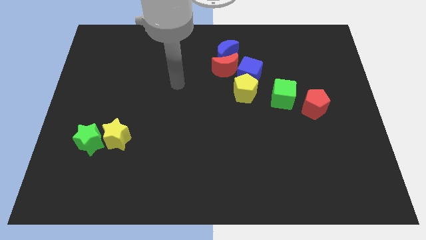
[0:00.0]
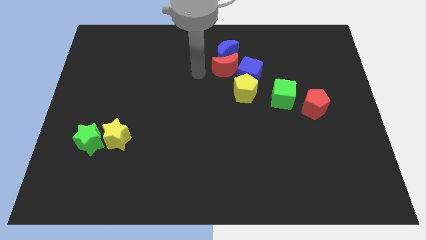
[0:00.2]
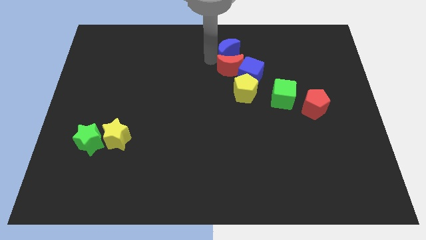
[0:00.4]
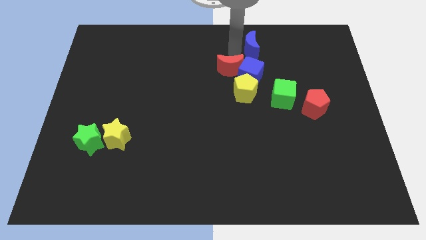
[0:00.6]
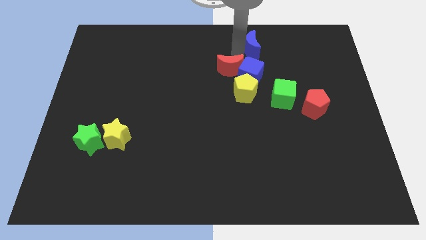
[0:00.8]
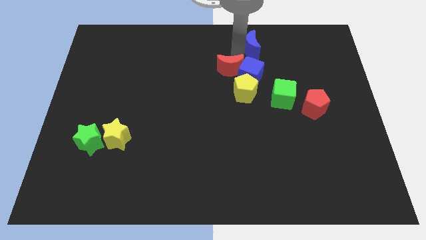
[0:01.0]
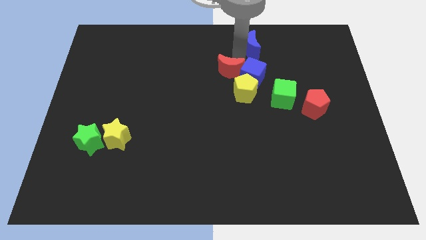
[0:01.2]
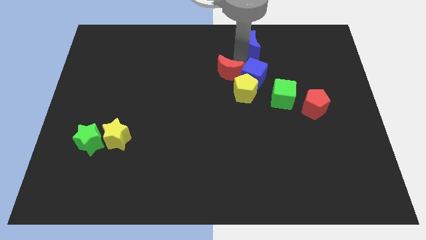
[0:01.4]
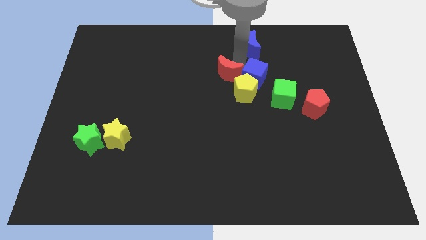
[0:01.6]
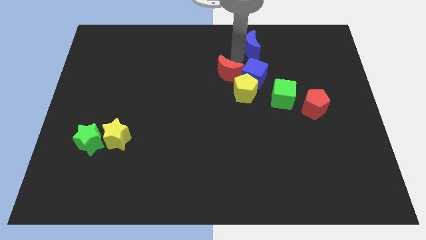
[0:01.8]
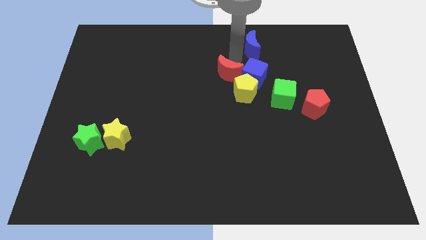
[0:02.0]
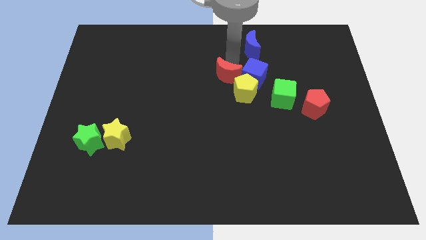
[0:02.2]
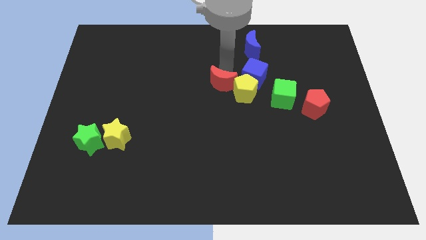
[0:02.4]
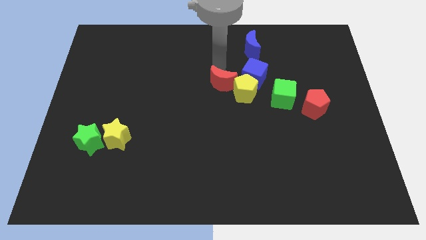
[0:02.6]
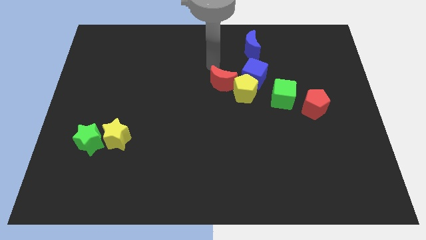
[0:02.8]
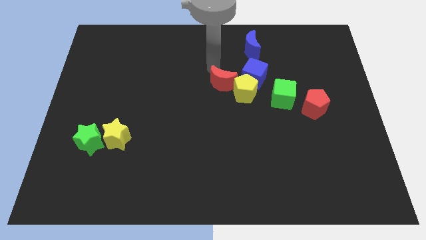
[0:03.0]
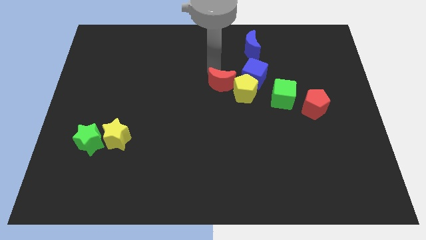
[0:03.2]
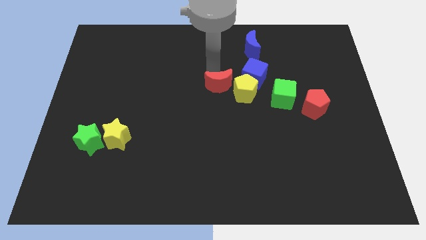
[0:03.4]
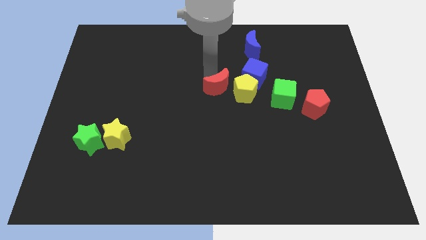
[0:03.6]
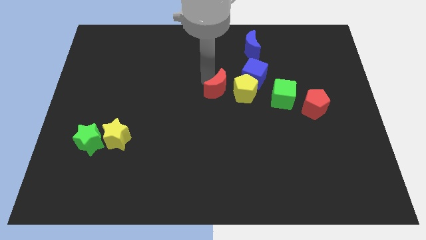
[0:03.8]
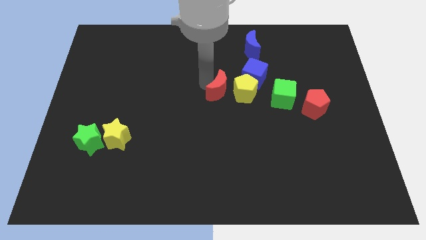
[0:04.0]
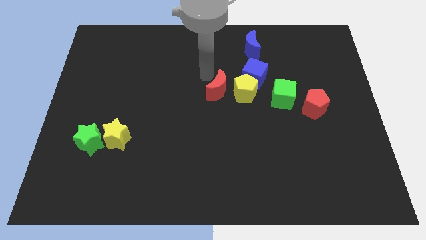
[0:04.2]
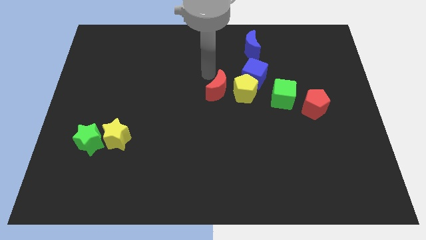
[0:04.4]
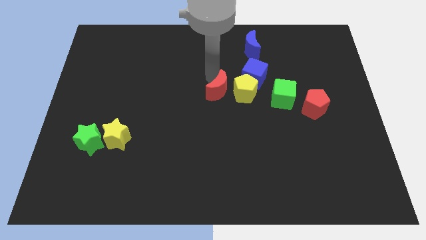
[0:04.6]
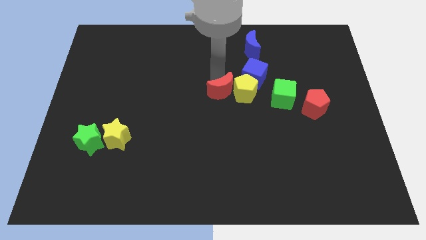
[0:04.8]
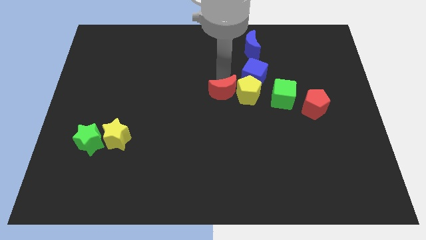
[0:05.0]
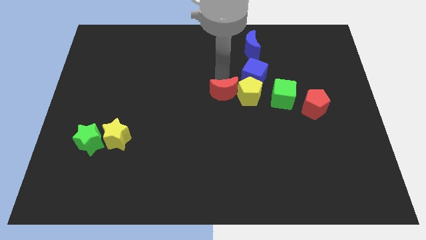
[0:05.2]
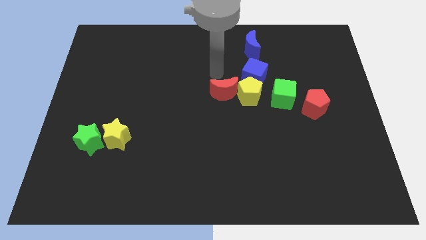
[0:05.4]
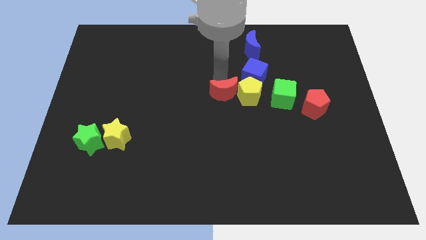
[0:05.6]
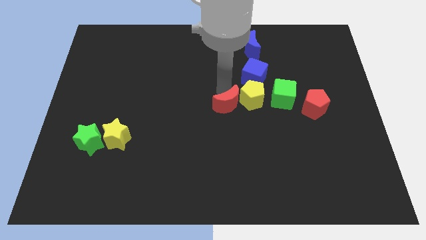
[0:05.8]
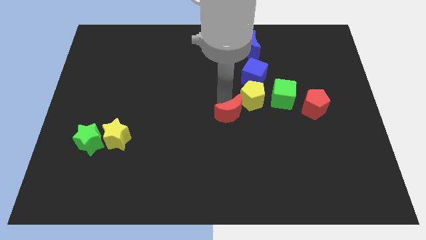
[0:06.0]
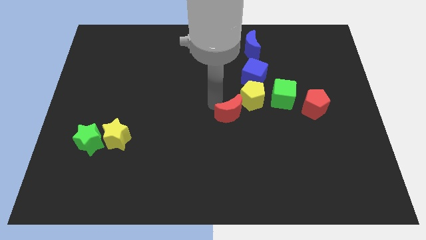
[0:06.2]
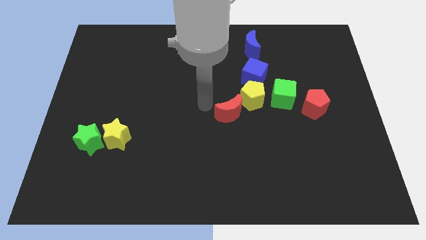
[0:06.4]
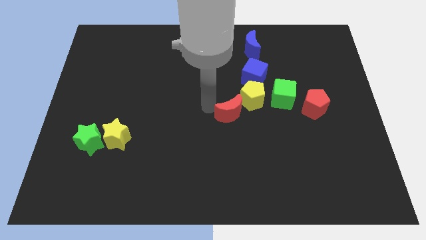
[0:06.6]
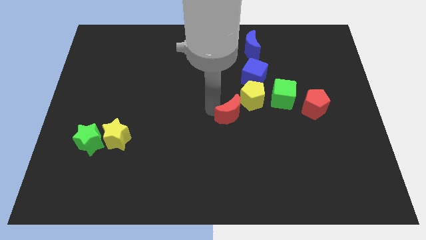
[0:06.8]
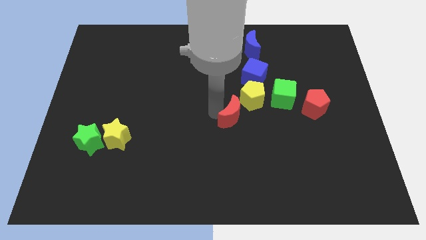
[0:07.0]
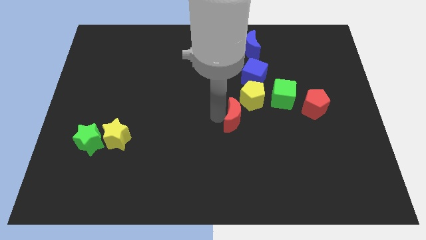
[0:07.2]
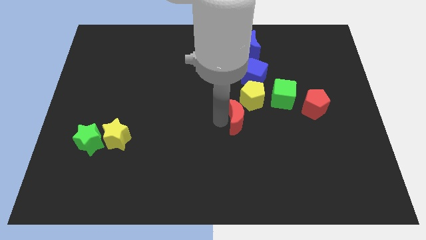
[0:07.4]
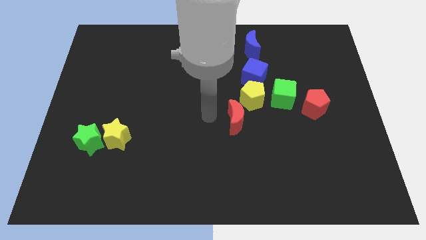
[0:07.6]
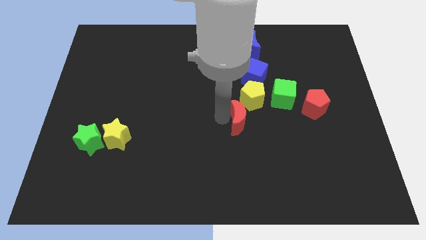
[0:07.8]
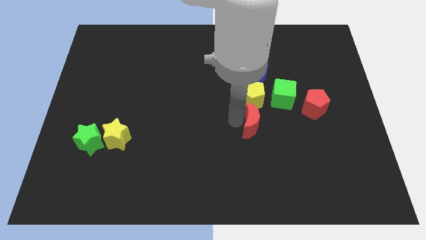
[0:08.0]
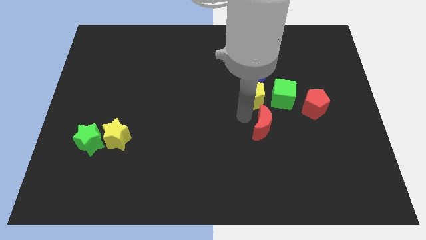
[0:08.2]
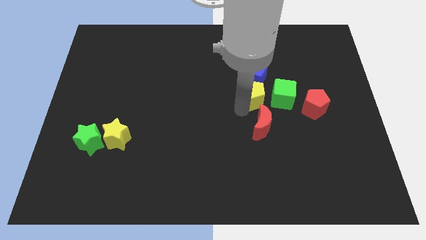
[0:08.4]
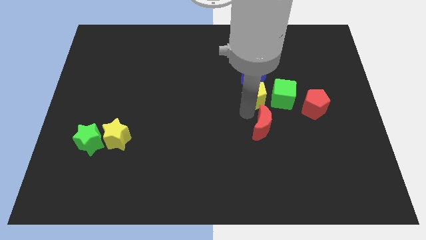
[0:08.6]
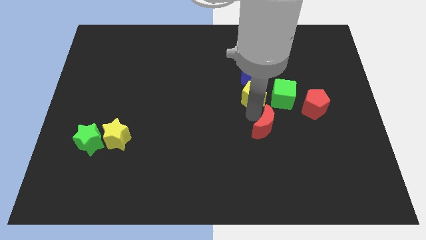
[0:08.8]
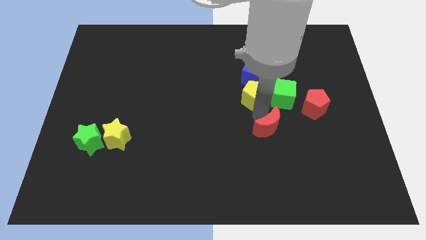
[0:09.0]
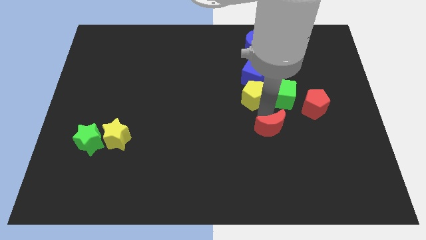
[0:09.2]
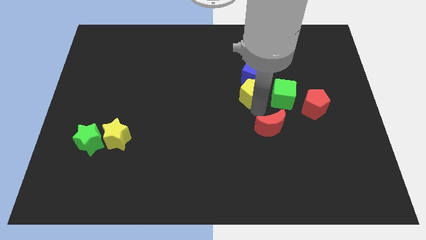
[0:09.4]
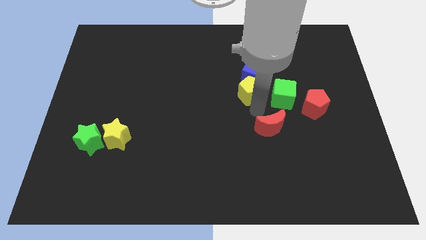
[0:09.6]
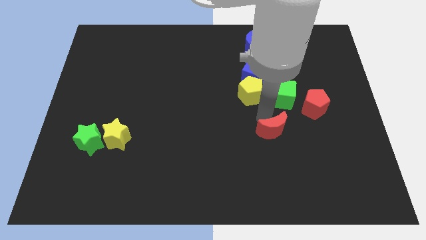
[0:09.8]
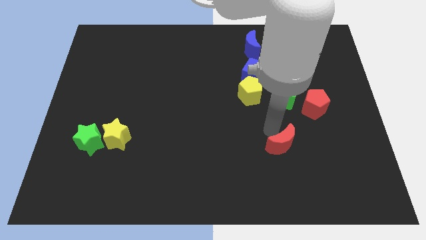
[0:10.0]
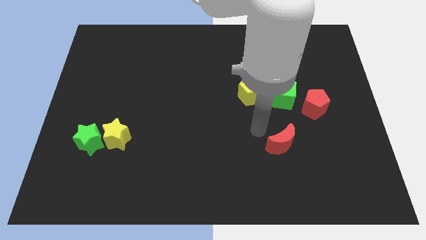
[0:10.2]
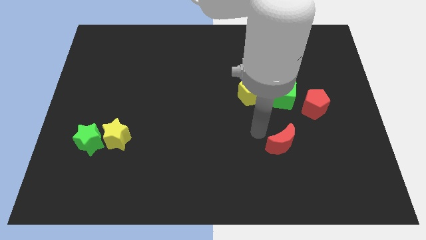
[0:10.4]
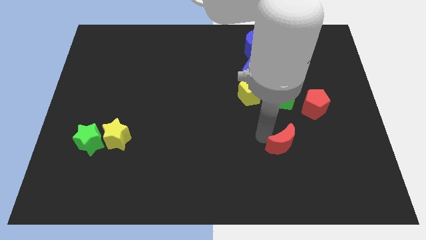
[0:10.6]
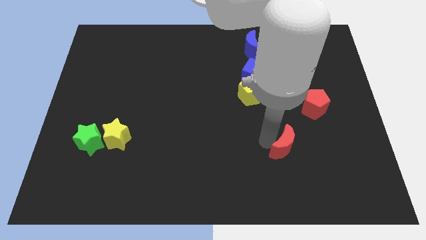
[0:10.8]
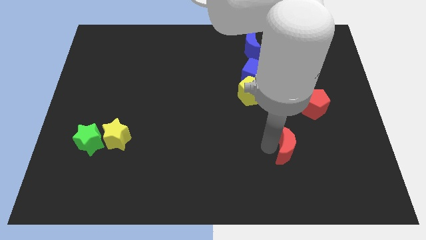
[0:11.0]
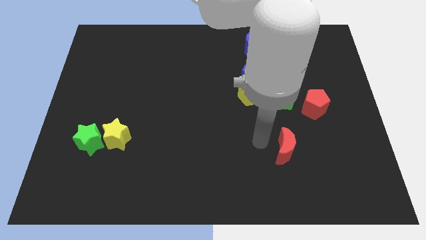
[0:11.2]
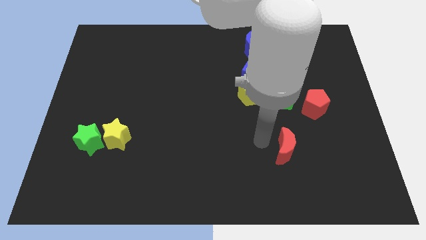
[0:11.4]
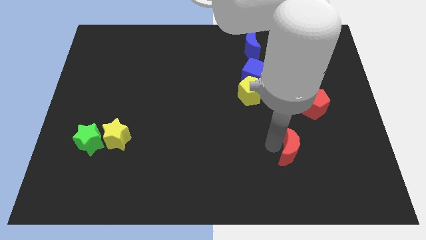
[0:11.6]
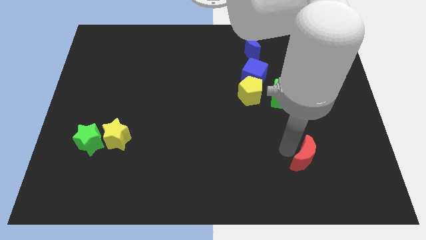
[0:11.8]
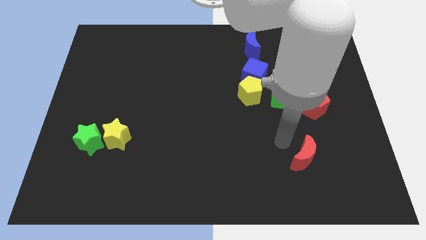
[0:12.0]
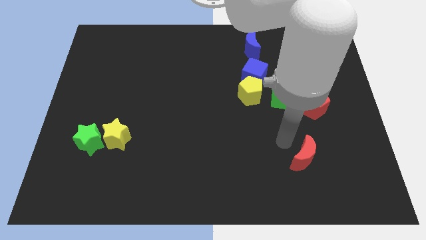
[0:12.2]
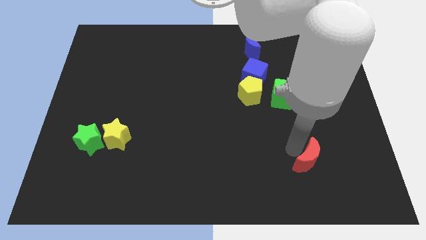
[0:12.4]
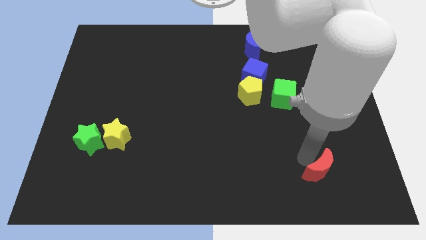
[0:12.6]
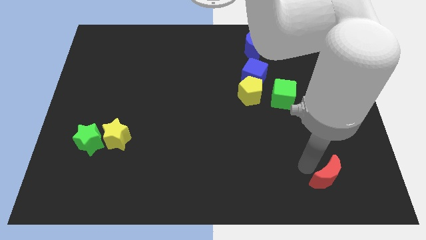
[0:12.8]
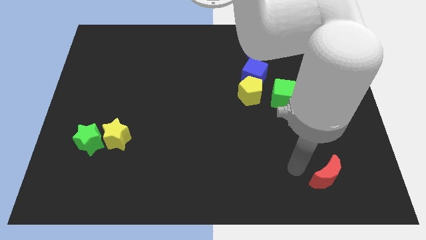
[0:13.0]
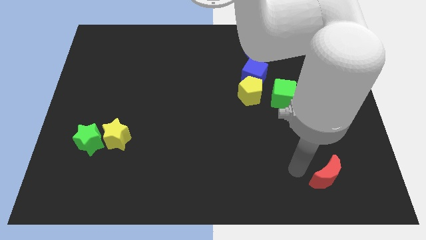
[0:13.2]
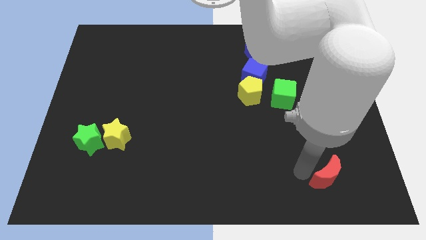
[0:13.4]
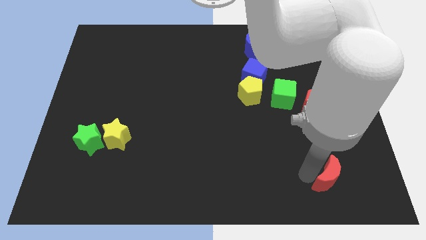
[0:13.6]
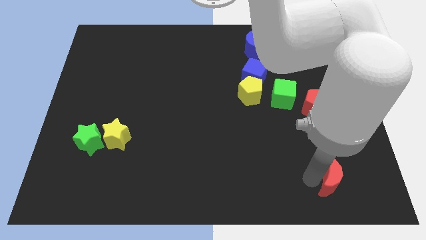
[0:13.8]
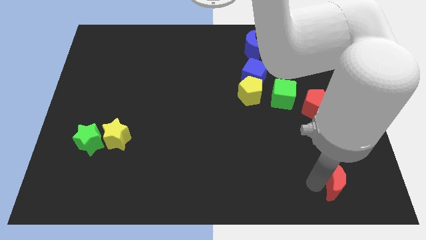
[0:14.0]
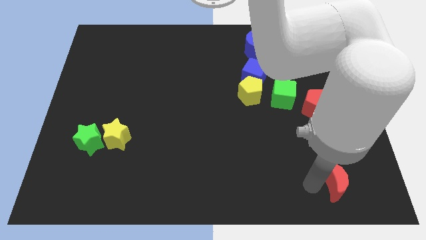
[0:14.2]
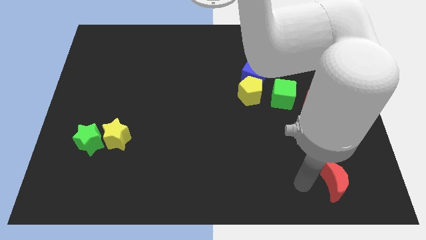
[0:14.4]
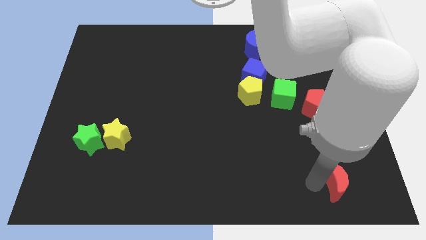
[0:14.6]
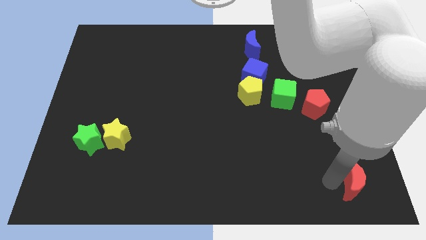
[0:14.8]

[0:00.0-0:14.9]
move the red moon to the bottom right
